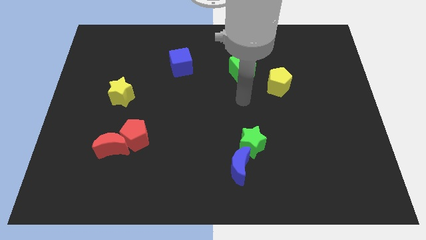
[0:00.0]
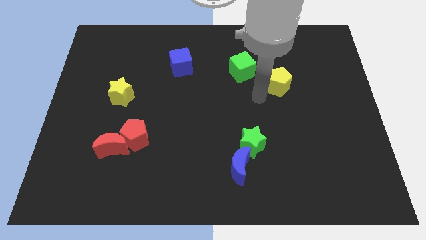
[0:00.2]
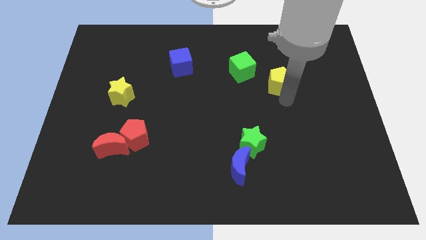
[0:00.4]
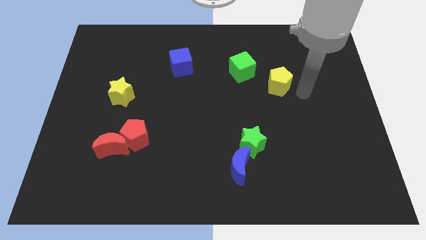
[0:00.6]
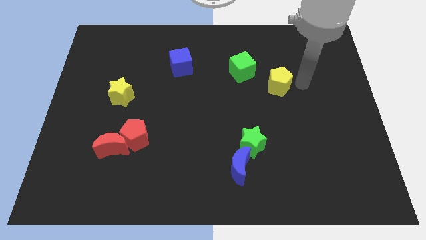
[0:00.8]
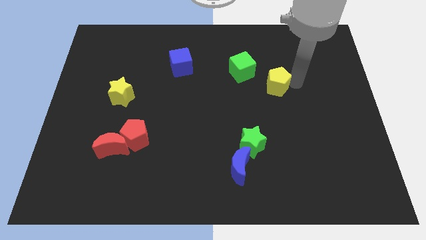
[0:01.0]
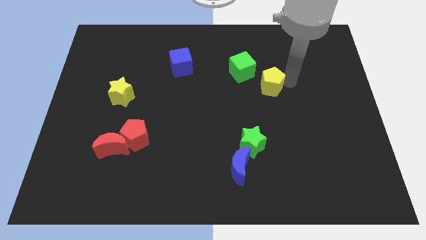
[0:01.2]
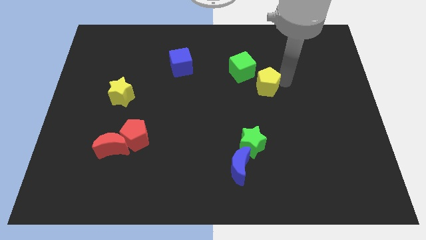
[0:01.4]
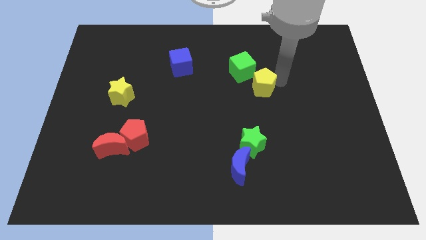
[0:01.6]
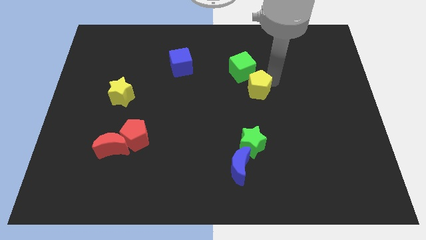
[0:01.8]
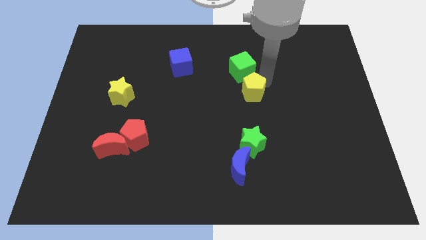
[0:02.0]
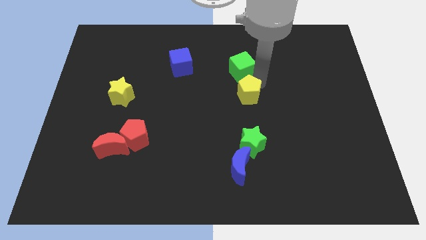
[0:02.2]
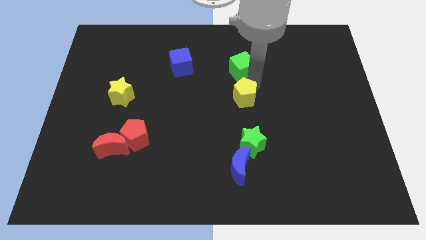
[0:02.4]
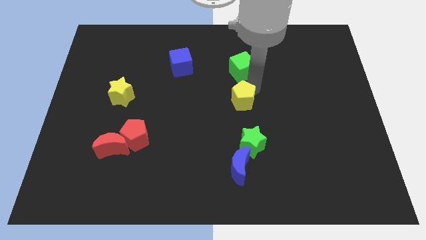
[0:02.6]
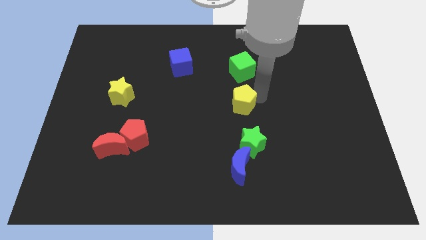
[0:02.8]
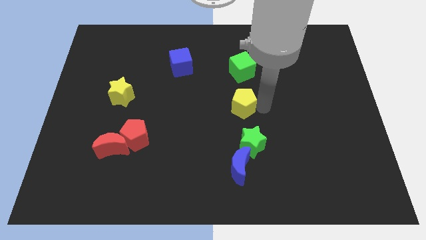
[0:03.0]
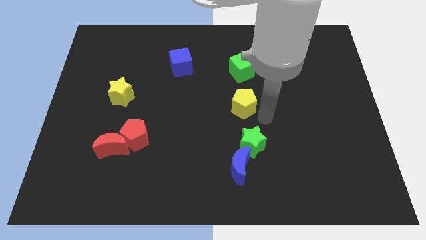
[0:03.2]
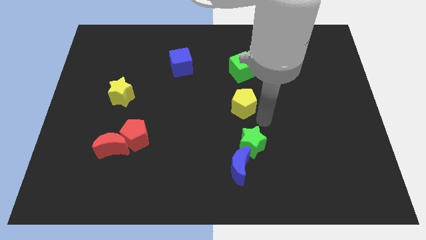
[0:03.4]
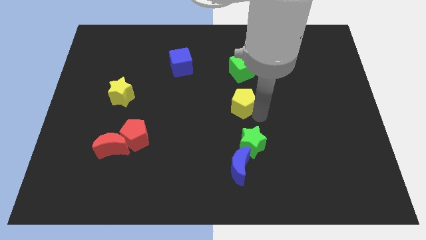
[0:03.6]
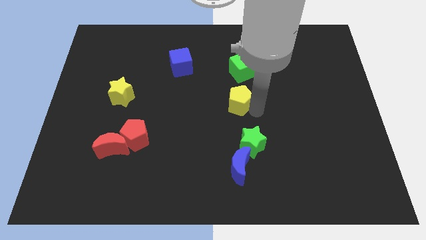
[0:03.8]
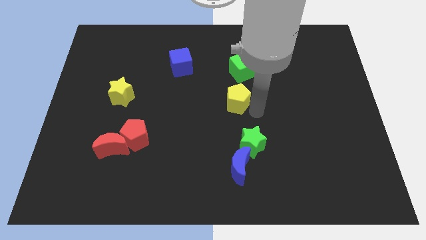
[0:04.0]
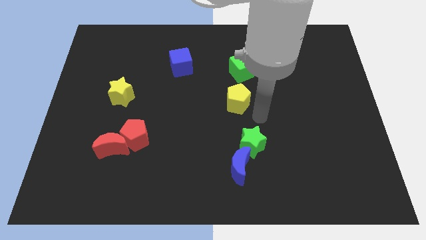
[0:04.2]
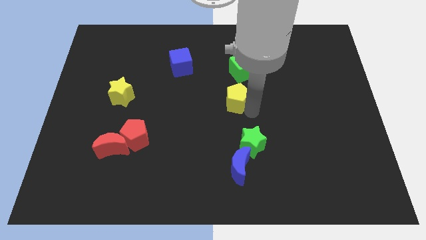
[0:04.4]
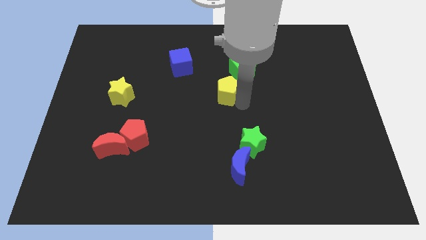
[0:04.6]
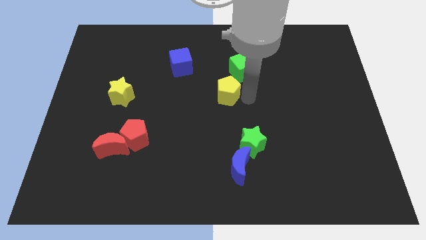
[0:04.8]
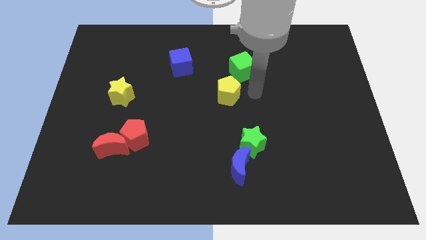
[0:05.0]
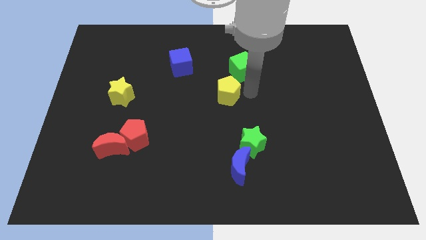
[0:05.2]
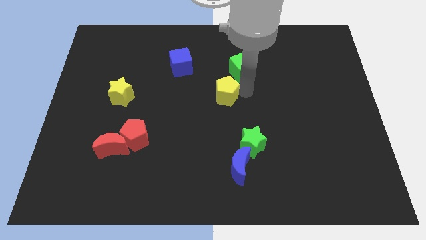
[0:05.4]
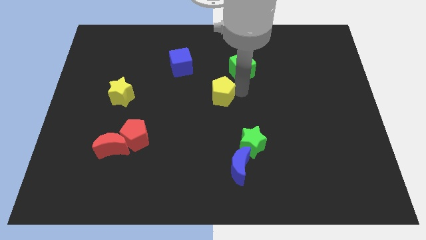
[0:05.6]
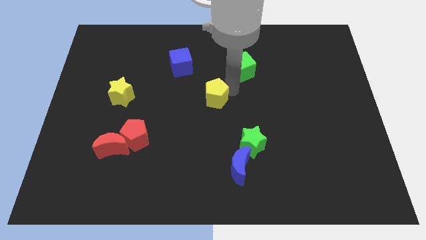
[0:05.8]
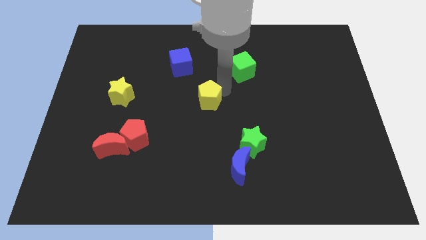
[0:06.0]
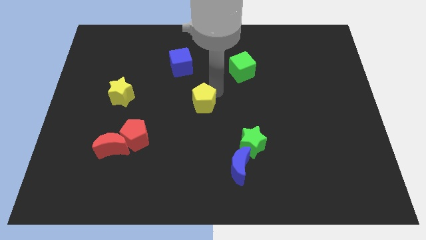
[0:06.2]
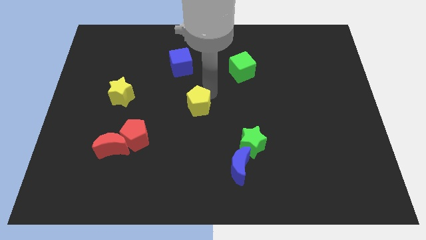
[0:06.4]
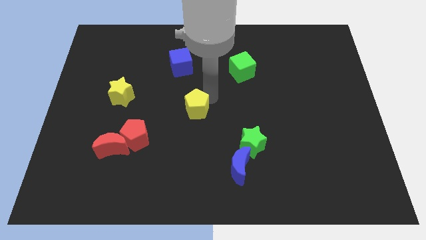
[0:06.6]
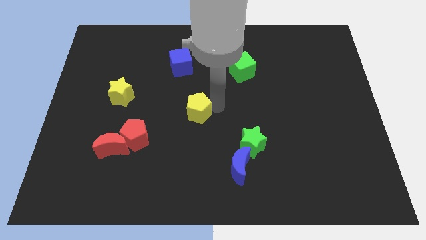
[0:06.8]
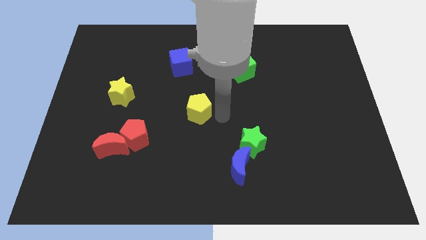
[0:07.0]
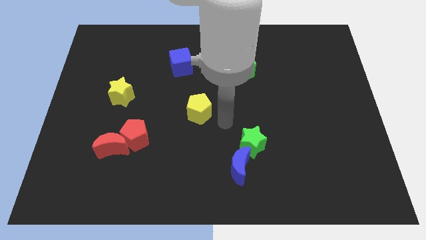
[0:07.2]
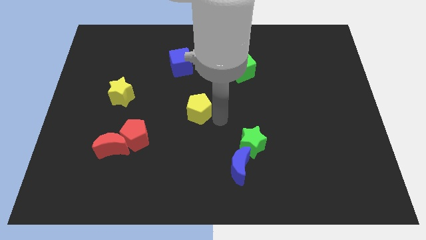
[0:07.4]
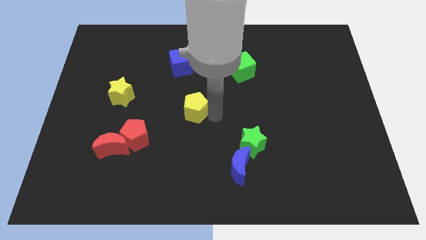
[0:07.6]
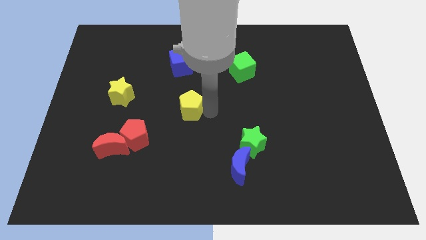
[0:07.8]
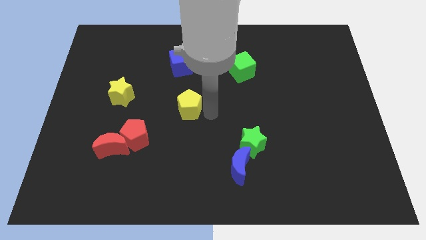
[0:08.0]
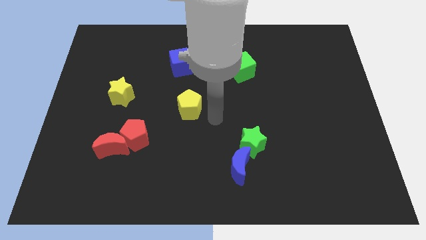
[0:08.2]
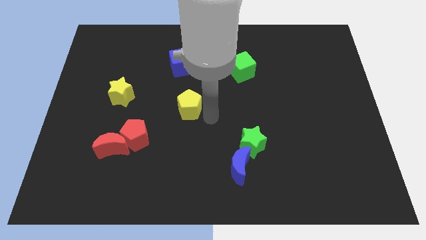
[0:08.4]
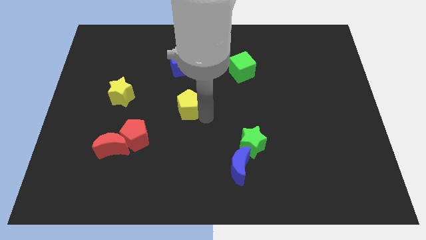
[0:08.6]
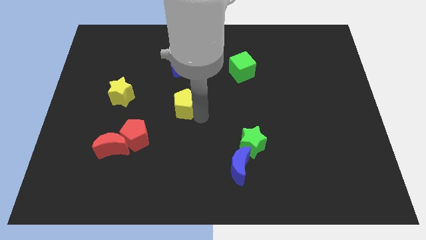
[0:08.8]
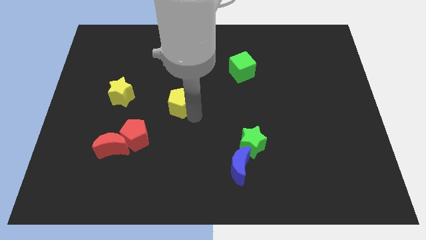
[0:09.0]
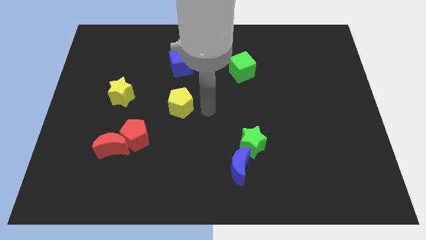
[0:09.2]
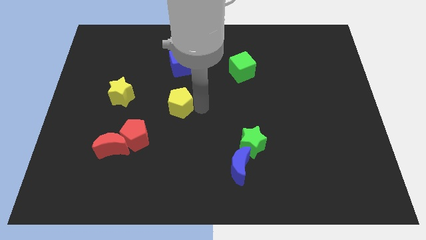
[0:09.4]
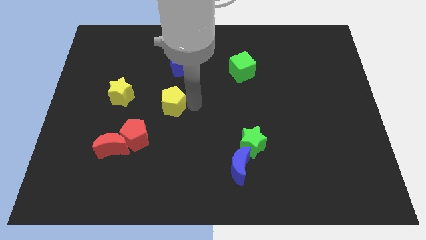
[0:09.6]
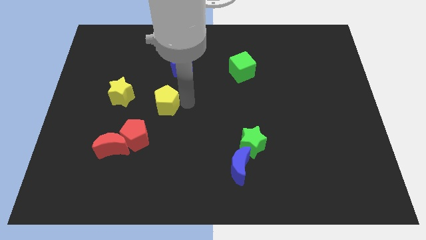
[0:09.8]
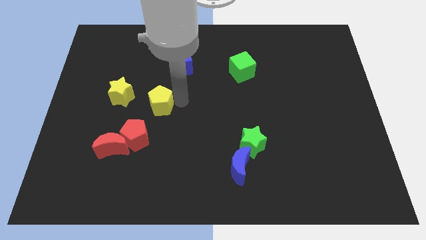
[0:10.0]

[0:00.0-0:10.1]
push the yellow pentagon to the top of the red pentagon

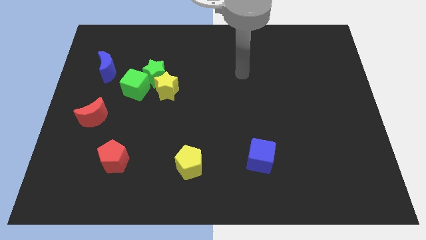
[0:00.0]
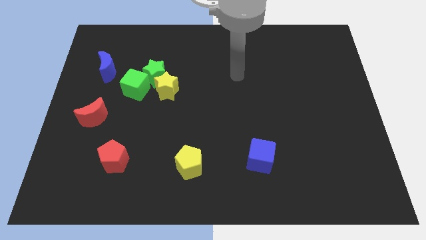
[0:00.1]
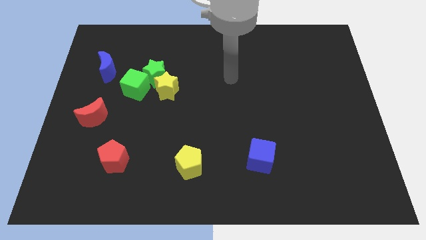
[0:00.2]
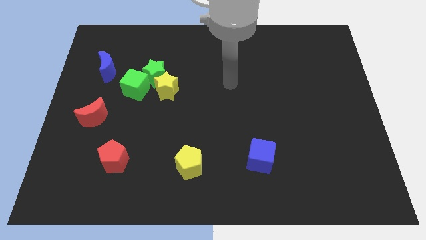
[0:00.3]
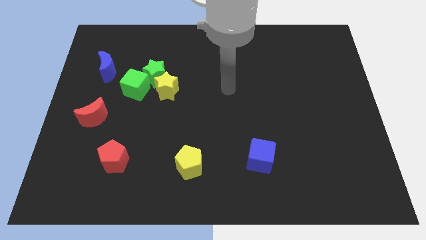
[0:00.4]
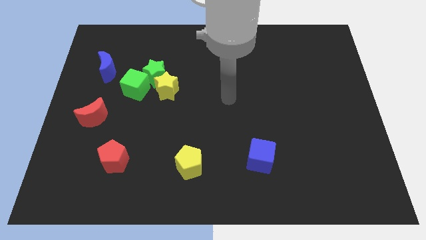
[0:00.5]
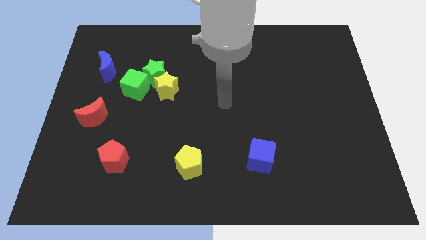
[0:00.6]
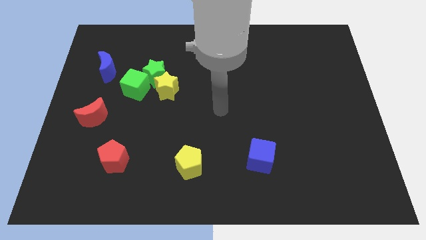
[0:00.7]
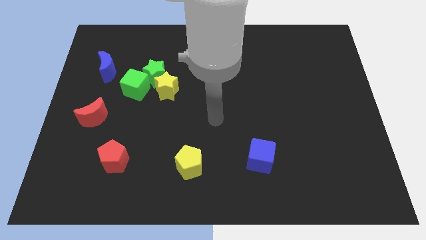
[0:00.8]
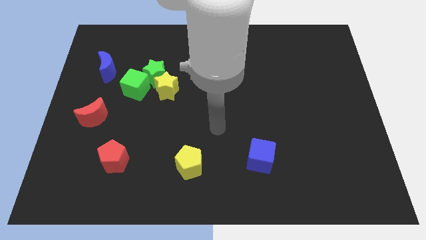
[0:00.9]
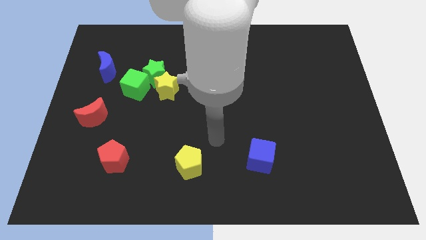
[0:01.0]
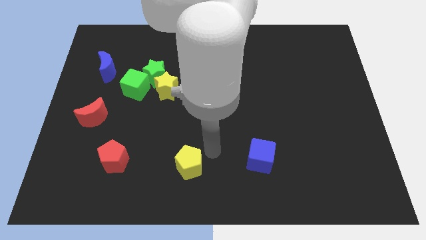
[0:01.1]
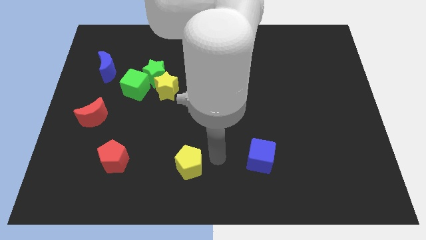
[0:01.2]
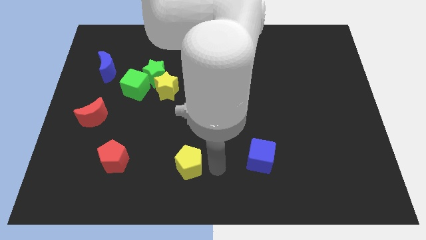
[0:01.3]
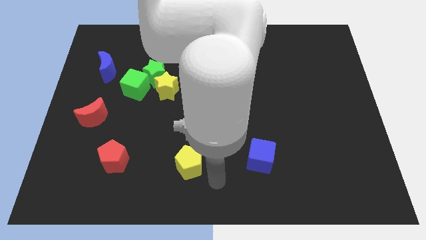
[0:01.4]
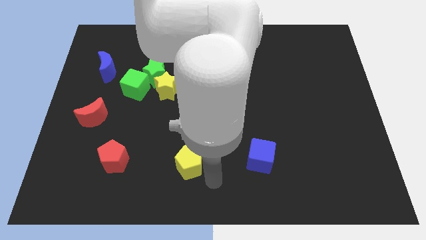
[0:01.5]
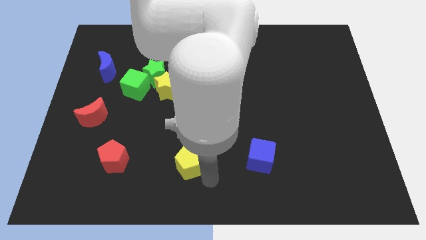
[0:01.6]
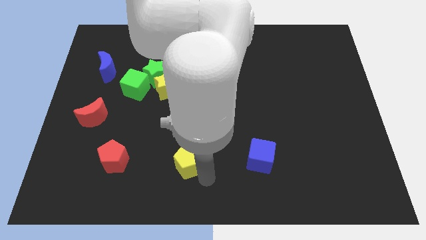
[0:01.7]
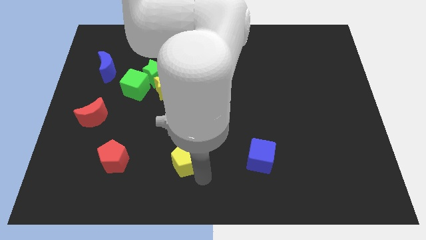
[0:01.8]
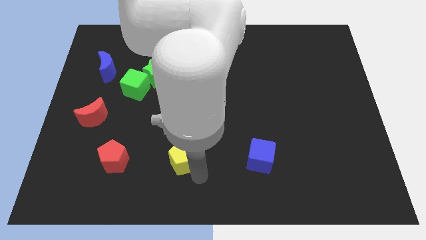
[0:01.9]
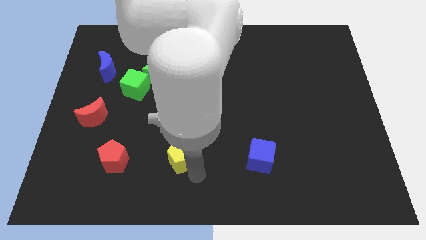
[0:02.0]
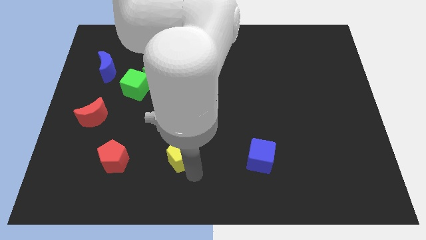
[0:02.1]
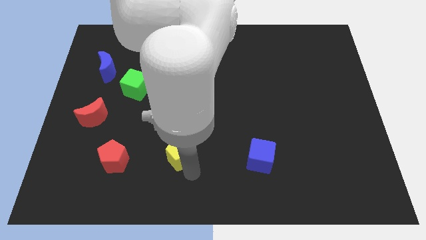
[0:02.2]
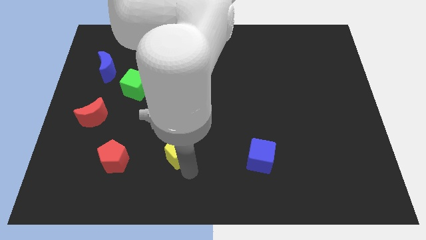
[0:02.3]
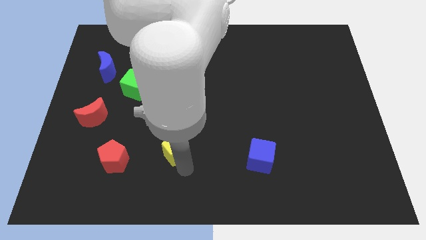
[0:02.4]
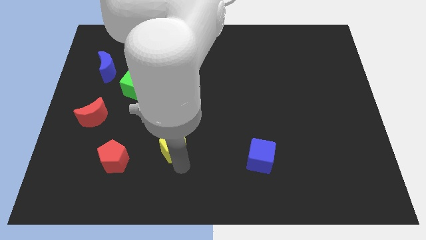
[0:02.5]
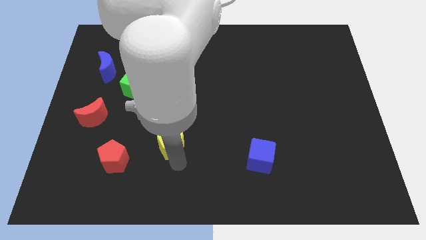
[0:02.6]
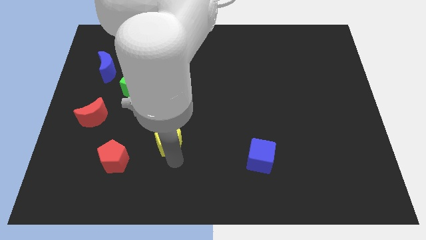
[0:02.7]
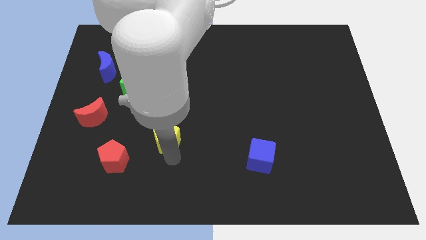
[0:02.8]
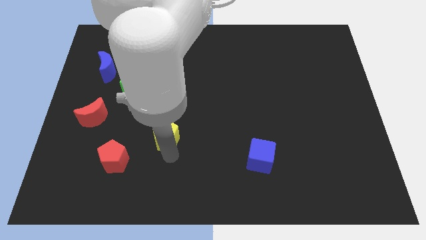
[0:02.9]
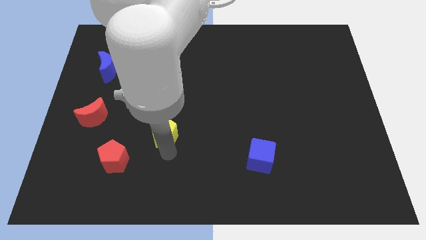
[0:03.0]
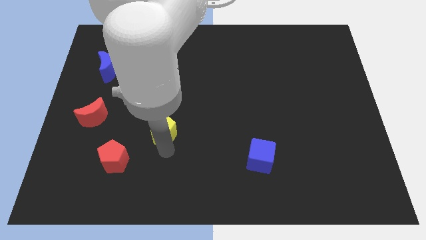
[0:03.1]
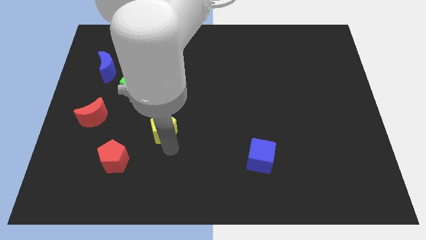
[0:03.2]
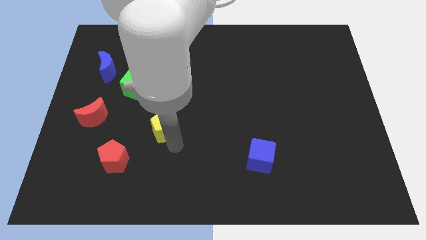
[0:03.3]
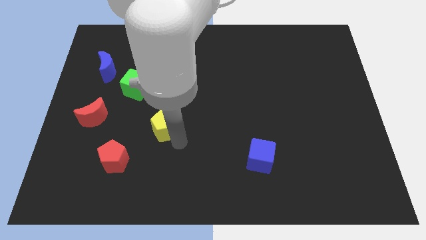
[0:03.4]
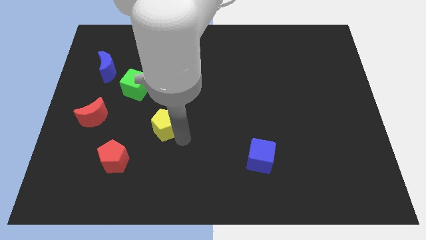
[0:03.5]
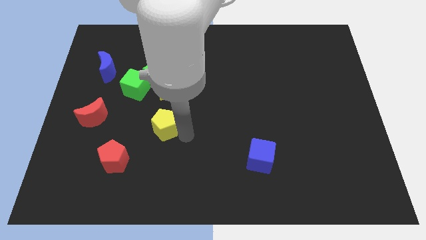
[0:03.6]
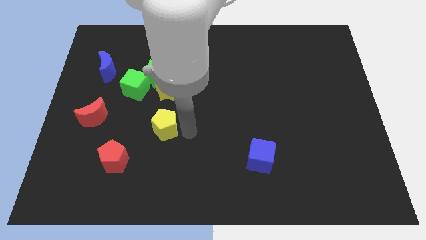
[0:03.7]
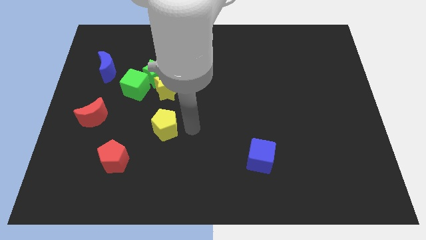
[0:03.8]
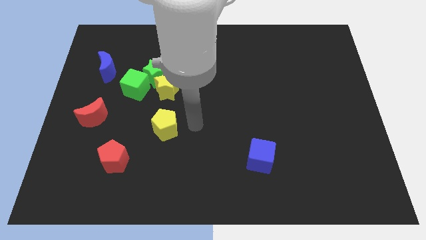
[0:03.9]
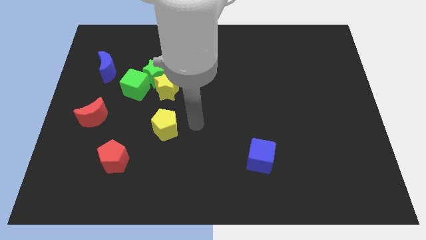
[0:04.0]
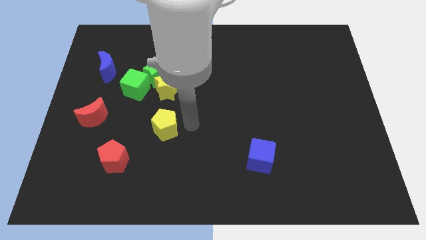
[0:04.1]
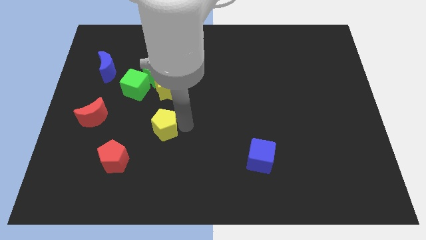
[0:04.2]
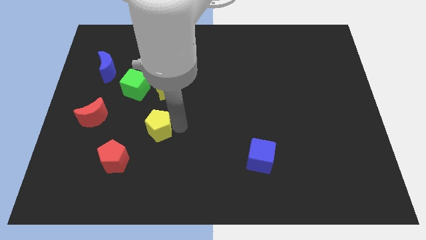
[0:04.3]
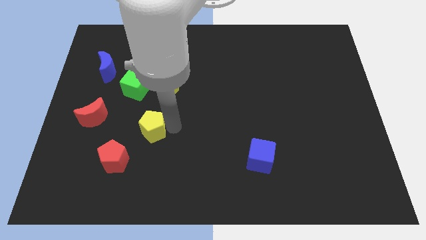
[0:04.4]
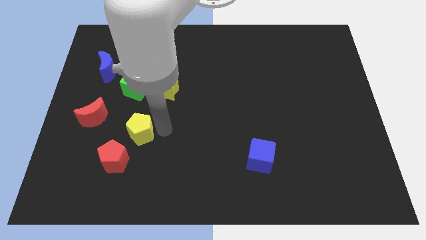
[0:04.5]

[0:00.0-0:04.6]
push the yellow pentagon above the red pentagon
